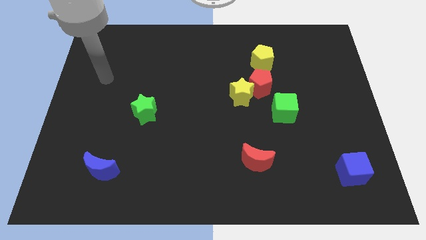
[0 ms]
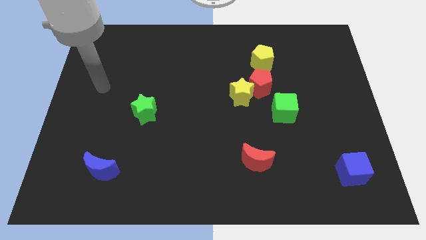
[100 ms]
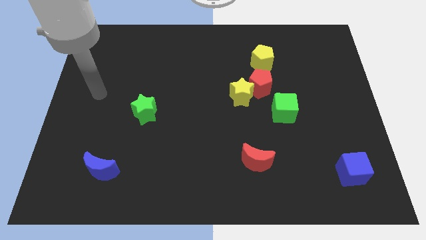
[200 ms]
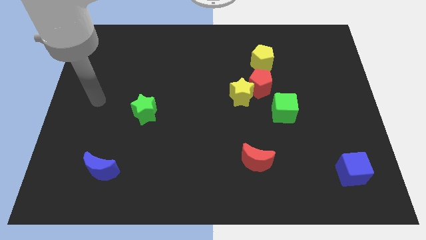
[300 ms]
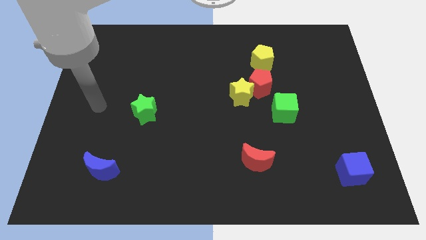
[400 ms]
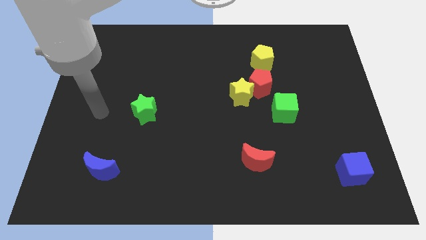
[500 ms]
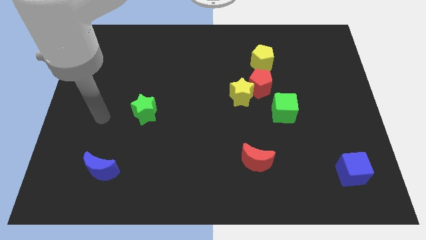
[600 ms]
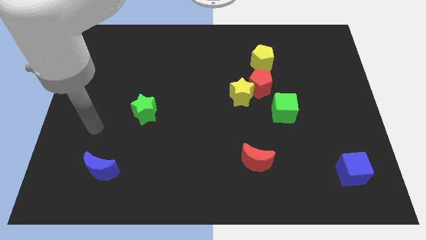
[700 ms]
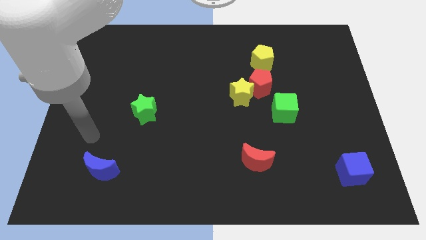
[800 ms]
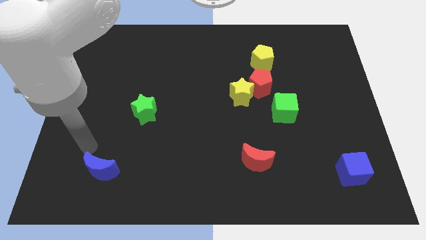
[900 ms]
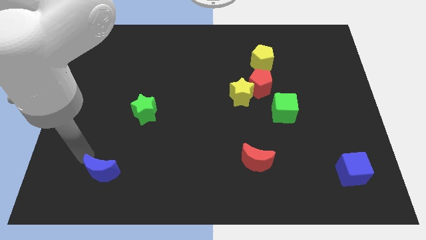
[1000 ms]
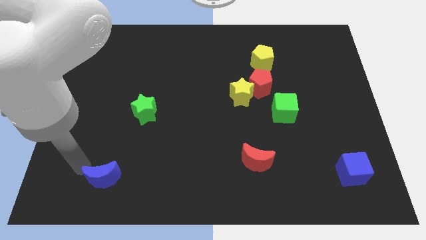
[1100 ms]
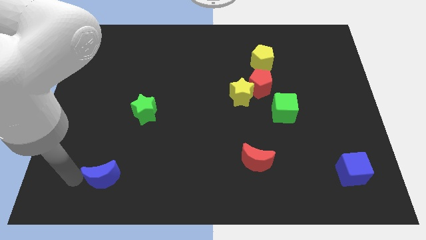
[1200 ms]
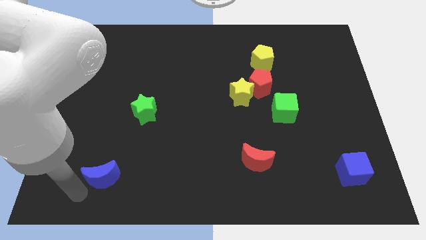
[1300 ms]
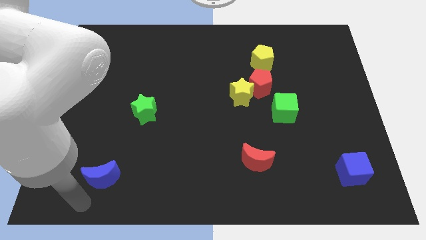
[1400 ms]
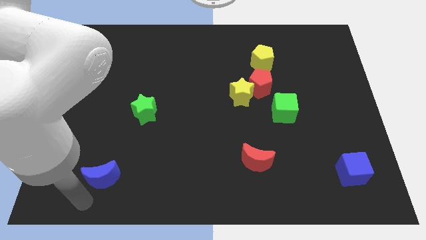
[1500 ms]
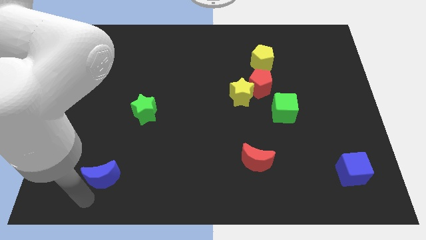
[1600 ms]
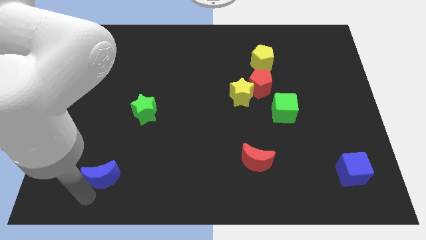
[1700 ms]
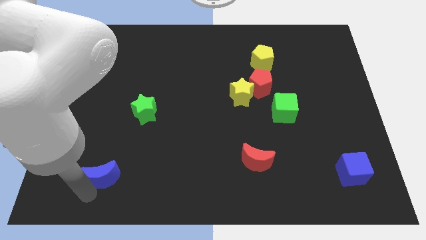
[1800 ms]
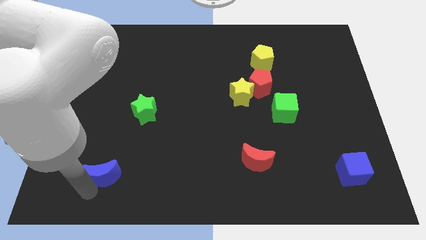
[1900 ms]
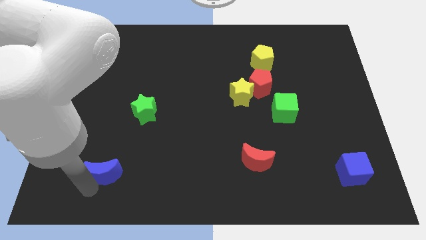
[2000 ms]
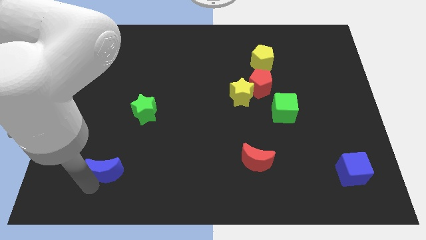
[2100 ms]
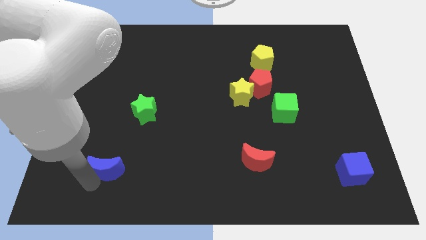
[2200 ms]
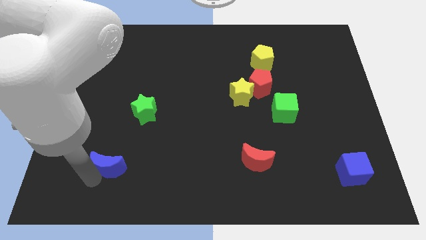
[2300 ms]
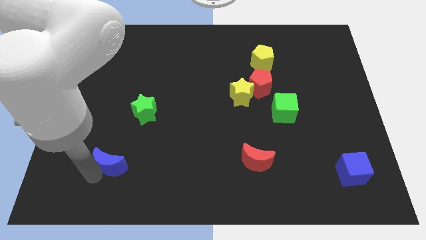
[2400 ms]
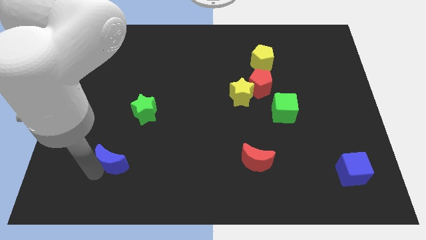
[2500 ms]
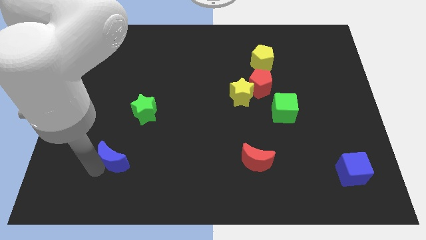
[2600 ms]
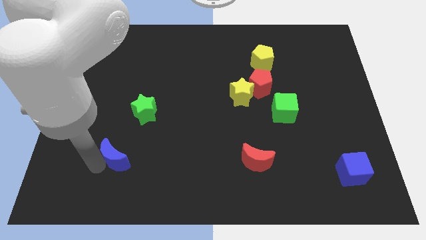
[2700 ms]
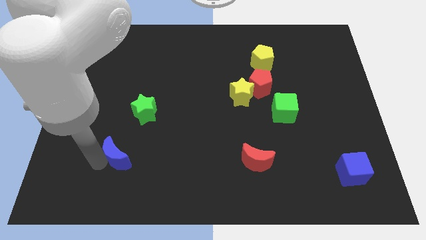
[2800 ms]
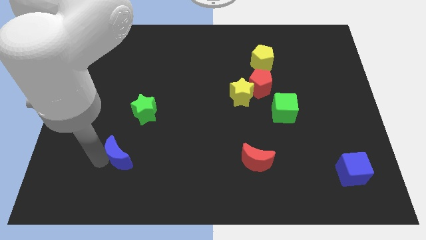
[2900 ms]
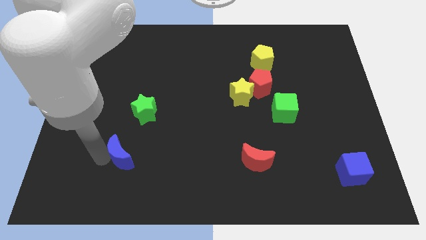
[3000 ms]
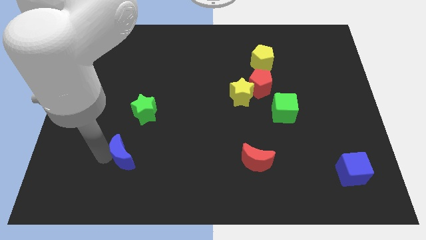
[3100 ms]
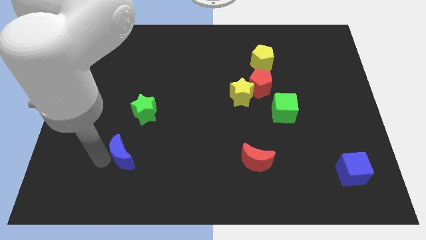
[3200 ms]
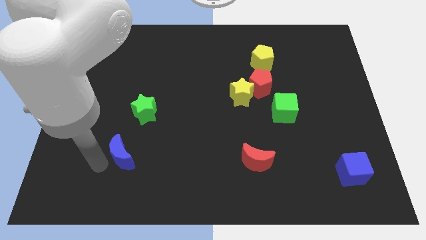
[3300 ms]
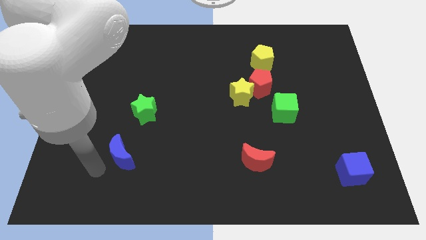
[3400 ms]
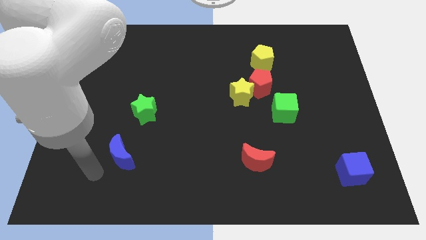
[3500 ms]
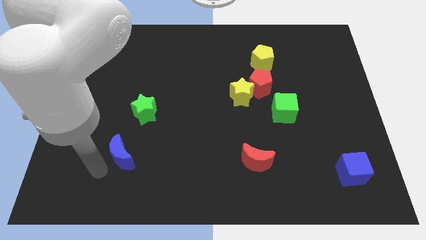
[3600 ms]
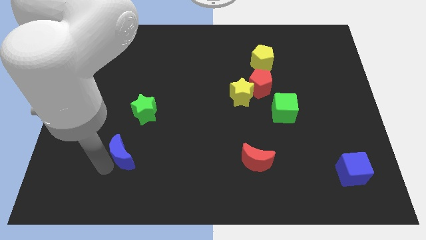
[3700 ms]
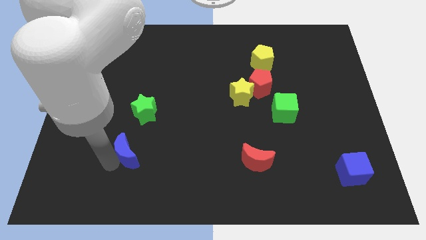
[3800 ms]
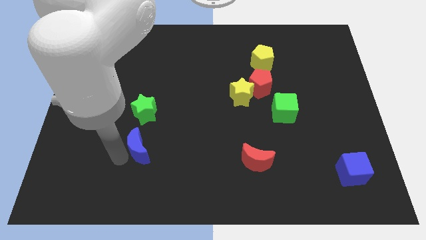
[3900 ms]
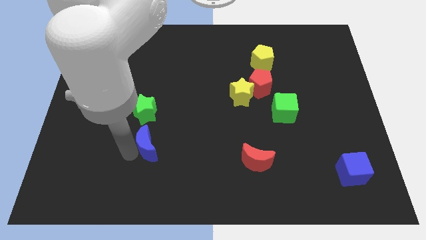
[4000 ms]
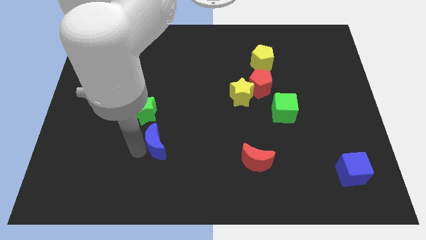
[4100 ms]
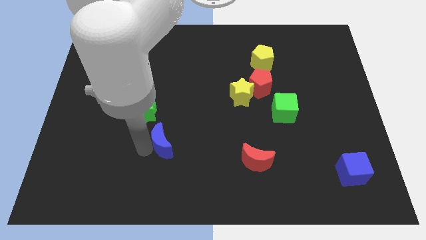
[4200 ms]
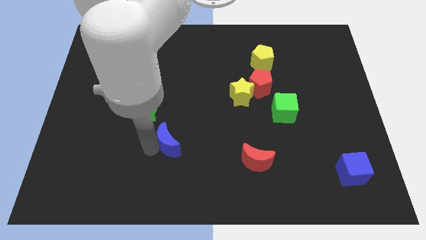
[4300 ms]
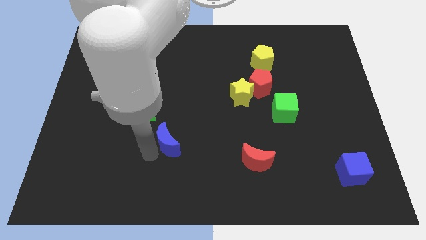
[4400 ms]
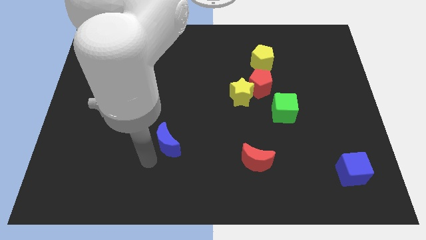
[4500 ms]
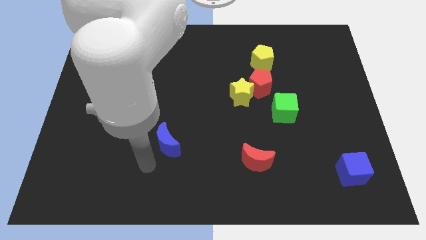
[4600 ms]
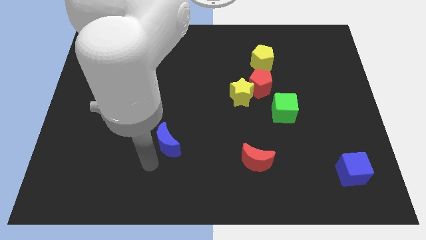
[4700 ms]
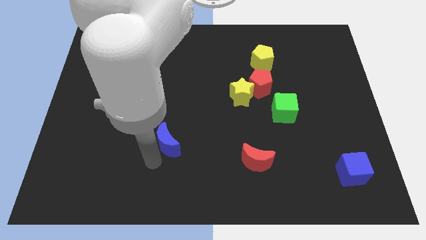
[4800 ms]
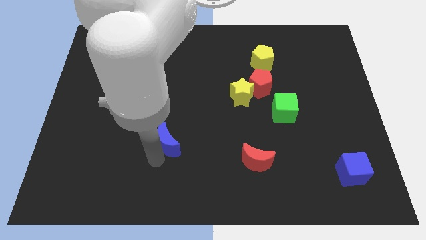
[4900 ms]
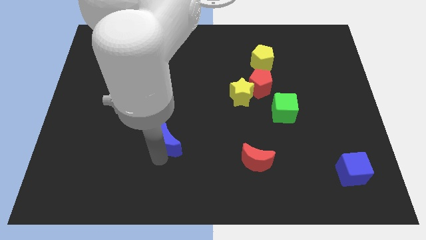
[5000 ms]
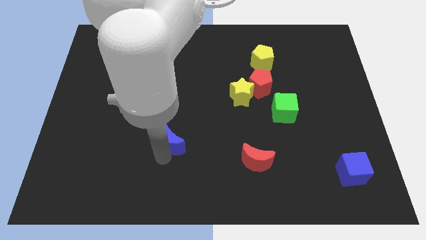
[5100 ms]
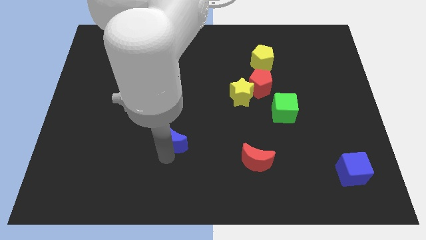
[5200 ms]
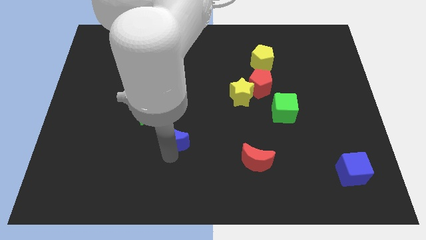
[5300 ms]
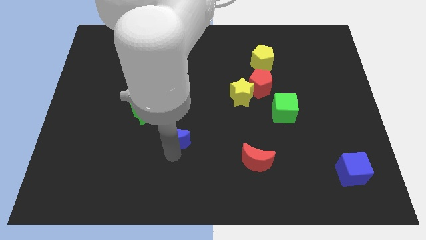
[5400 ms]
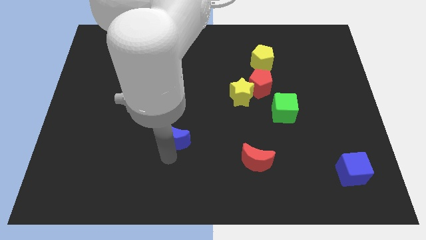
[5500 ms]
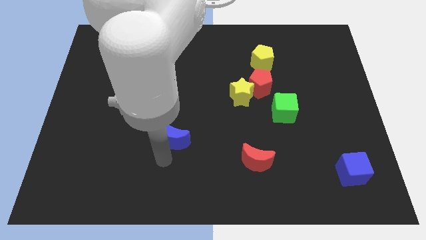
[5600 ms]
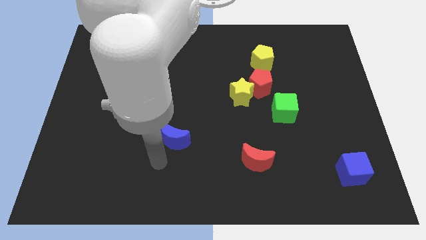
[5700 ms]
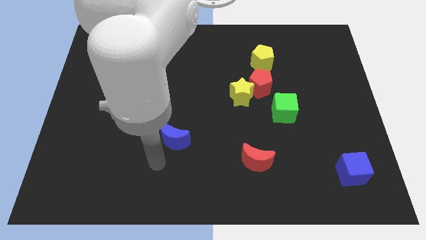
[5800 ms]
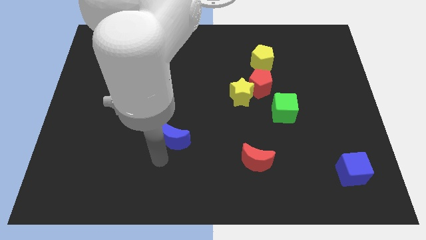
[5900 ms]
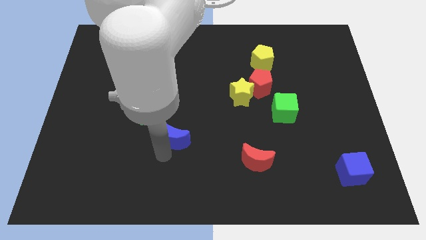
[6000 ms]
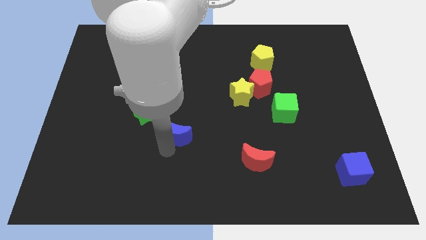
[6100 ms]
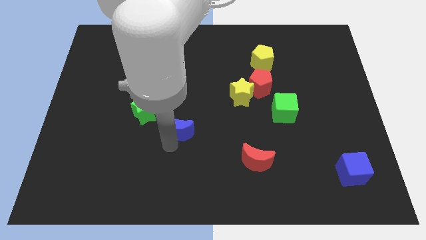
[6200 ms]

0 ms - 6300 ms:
slide the blue moon to the middle
